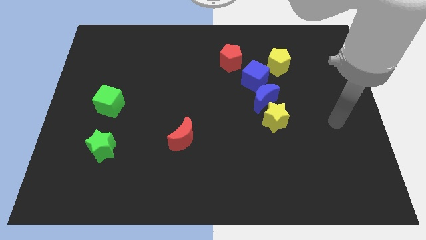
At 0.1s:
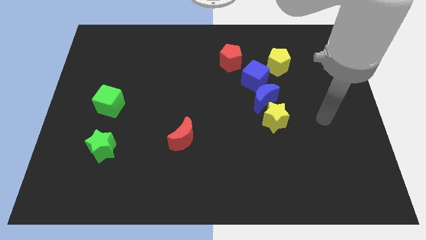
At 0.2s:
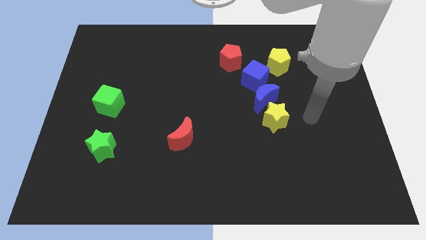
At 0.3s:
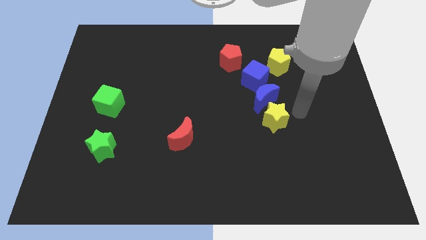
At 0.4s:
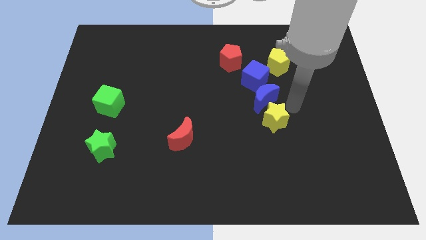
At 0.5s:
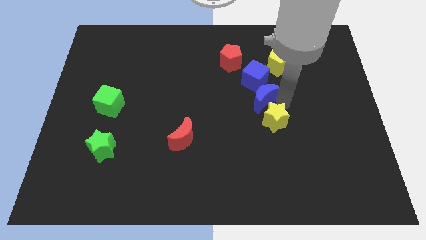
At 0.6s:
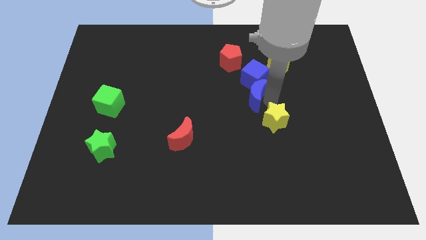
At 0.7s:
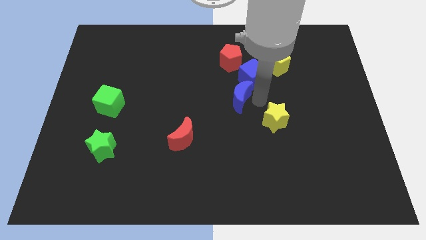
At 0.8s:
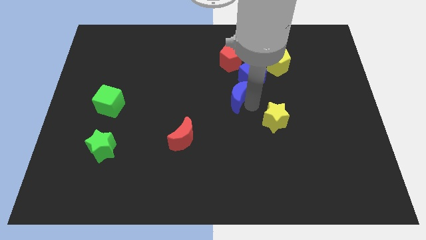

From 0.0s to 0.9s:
pull the yellow star apart from the blue moon

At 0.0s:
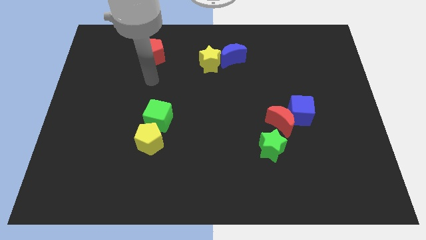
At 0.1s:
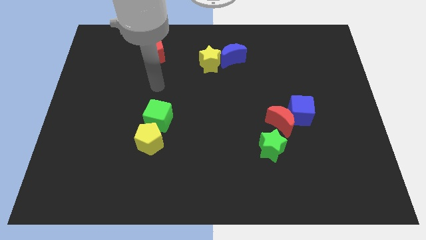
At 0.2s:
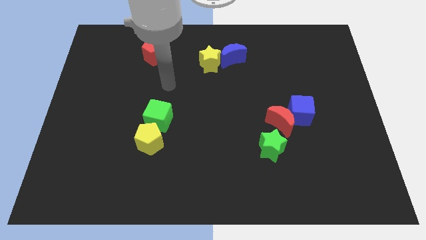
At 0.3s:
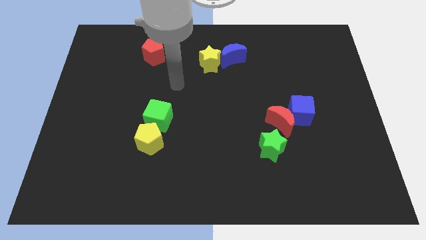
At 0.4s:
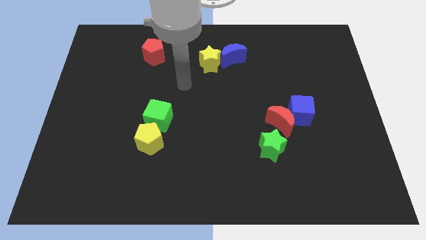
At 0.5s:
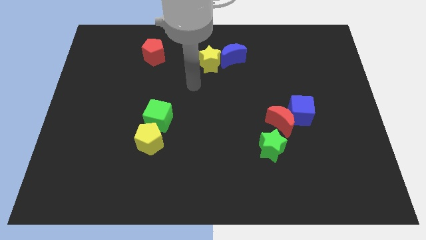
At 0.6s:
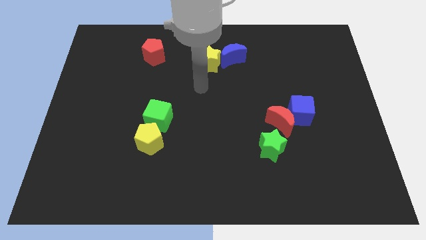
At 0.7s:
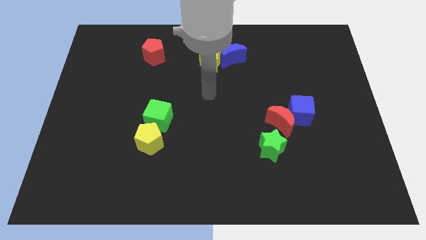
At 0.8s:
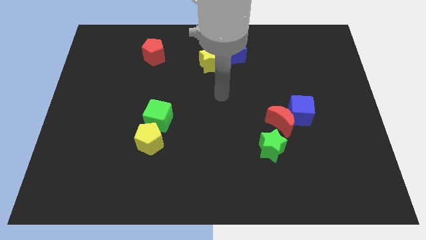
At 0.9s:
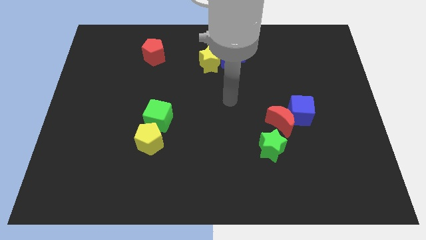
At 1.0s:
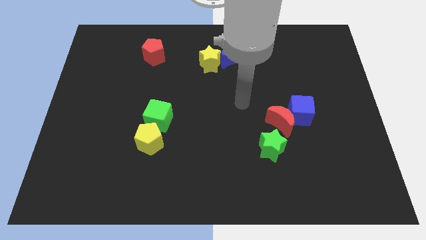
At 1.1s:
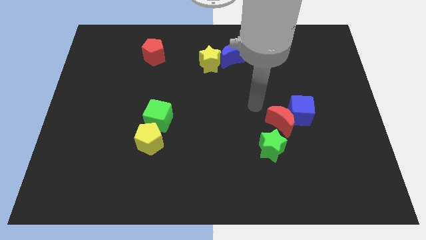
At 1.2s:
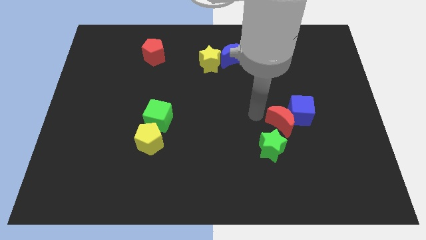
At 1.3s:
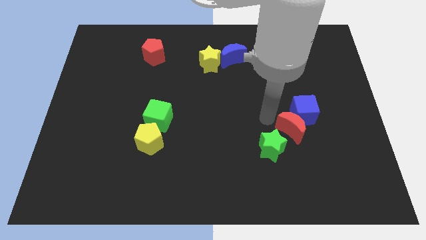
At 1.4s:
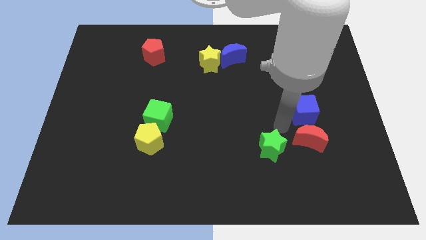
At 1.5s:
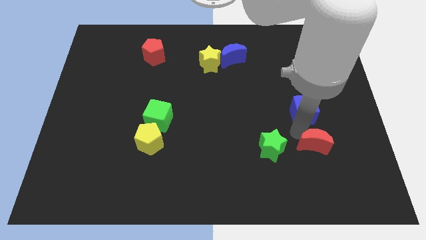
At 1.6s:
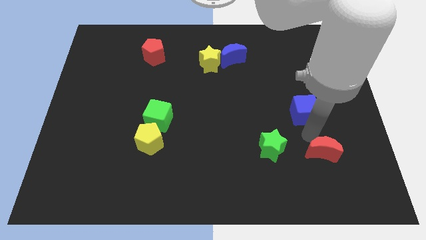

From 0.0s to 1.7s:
separate the blue cube from the red moon

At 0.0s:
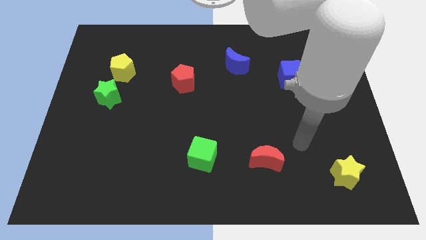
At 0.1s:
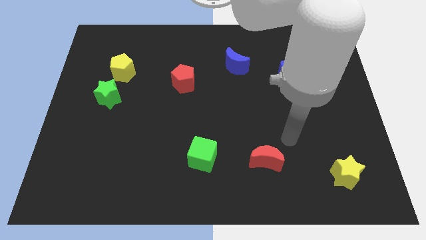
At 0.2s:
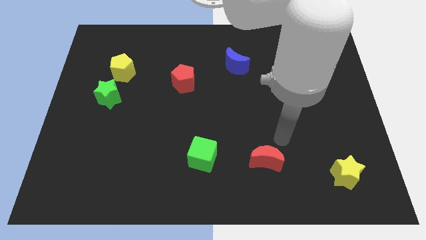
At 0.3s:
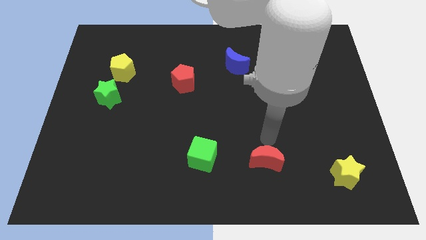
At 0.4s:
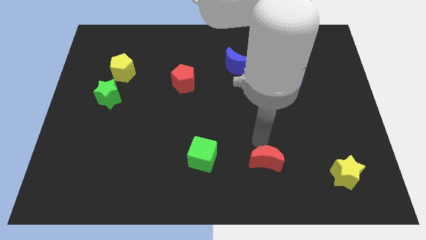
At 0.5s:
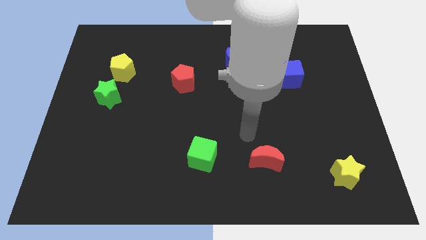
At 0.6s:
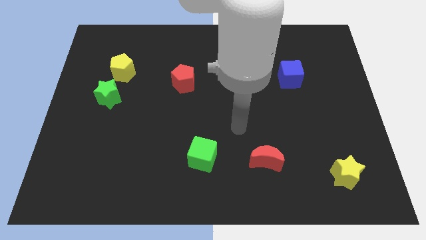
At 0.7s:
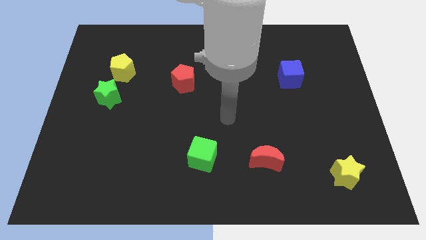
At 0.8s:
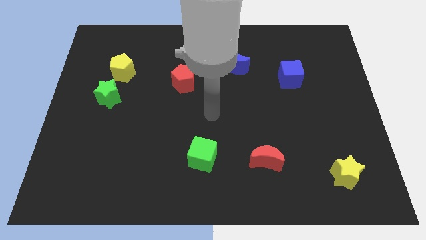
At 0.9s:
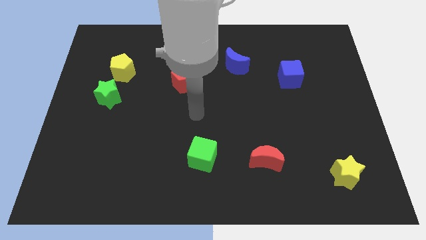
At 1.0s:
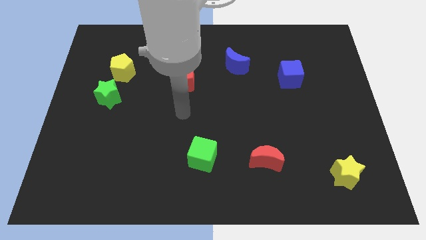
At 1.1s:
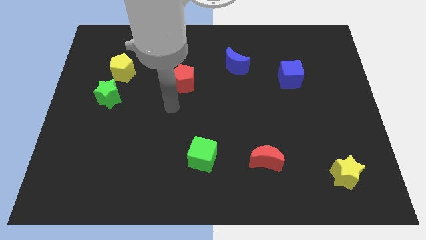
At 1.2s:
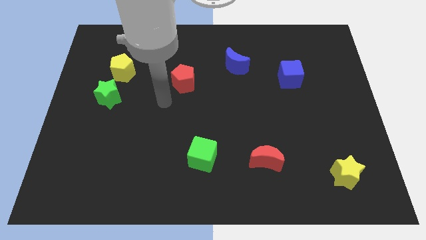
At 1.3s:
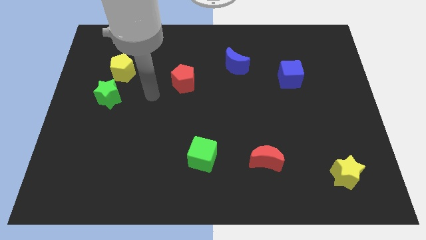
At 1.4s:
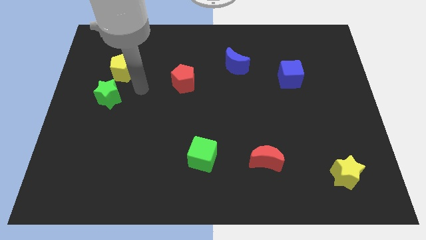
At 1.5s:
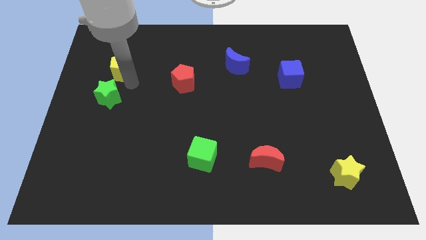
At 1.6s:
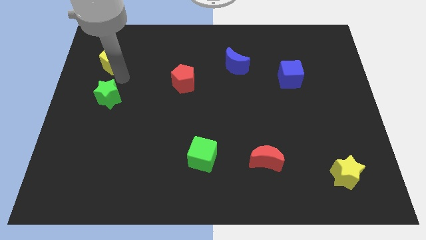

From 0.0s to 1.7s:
pull the green star apart from the yellow pentagon

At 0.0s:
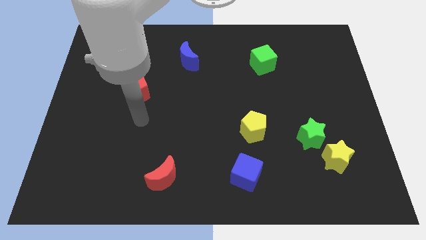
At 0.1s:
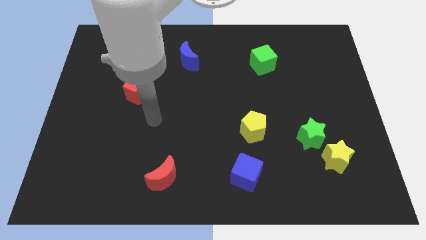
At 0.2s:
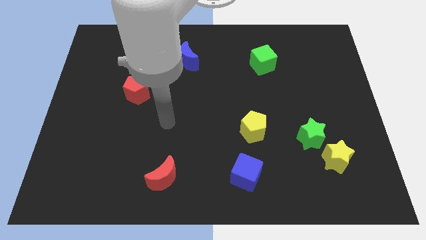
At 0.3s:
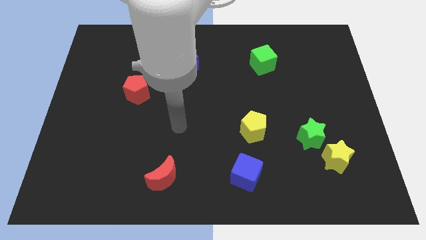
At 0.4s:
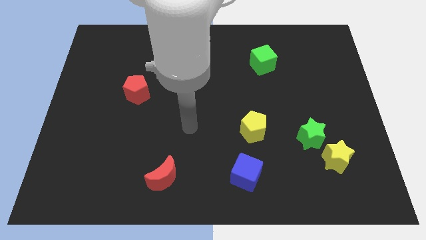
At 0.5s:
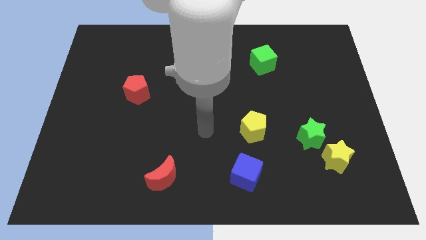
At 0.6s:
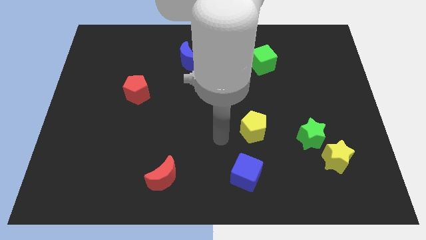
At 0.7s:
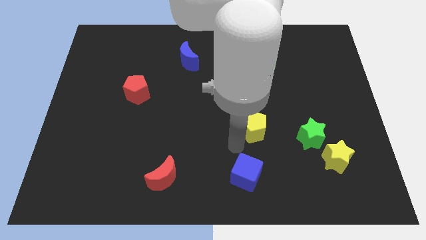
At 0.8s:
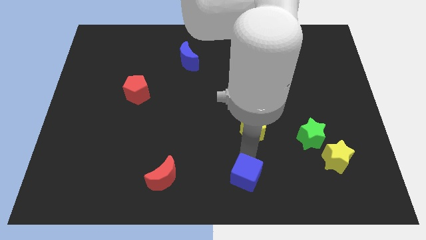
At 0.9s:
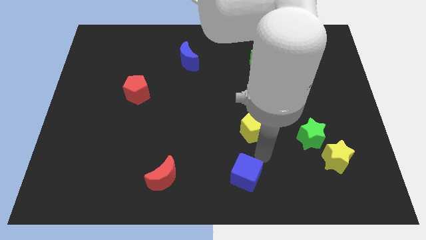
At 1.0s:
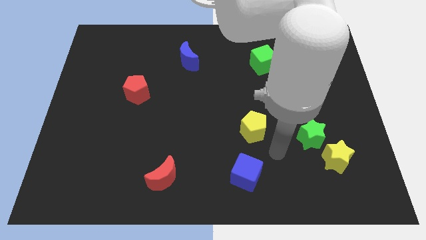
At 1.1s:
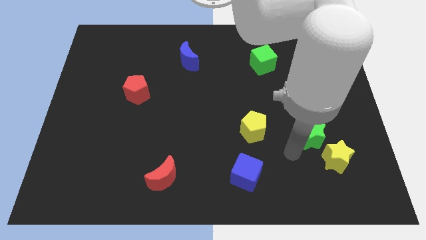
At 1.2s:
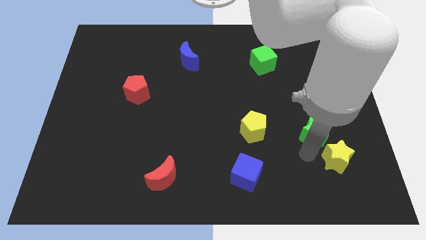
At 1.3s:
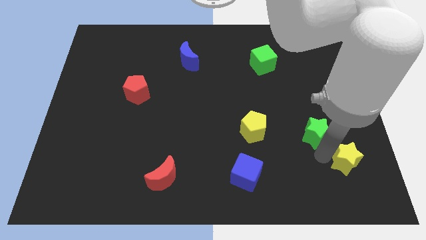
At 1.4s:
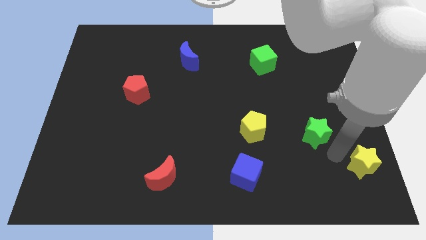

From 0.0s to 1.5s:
move the green star away from the yellow star

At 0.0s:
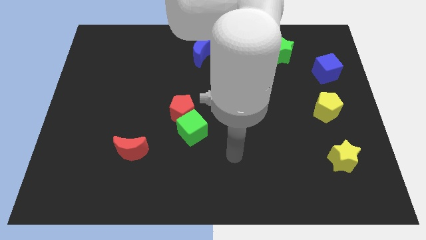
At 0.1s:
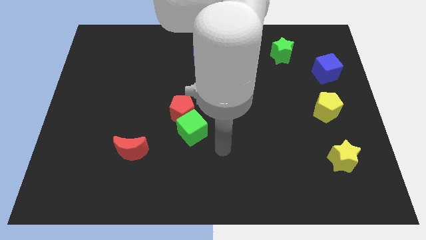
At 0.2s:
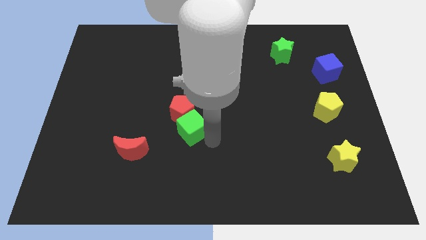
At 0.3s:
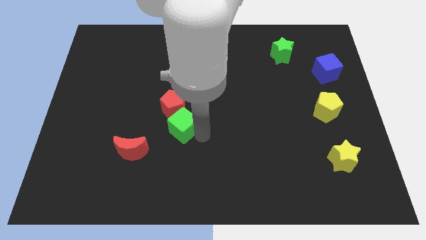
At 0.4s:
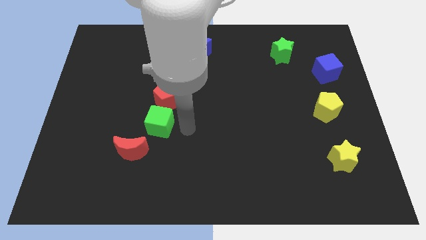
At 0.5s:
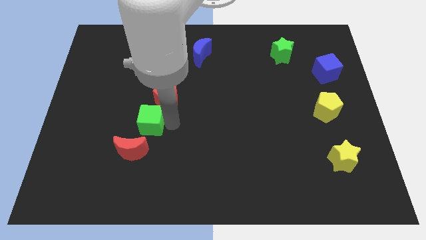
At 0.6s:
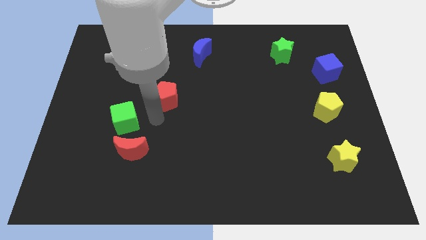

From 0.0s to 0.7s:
separate the red pentagon from the green cube

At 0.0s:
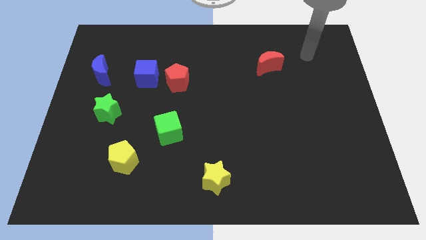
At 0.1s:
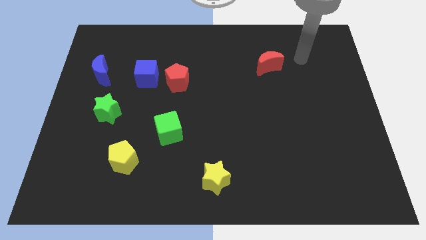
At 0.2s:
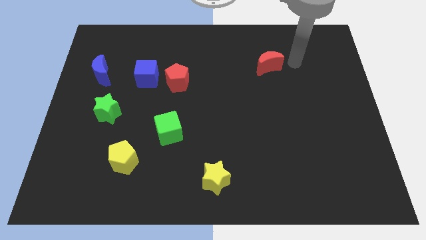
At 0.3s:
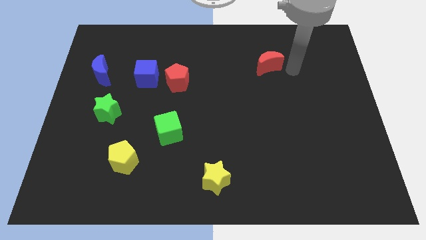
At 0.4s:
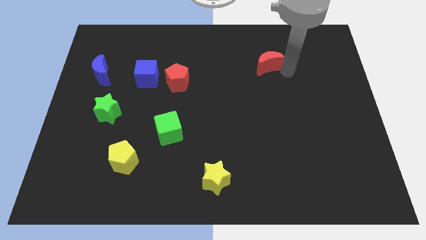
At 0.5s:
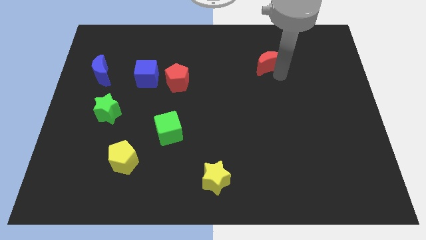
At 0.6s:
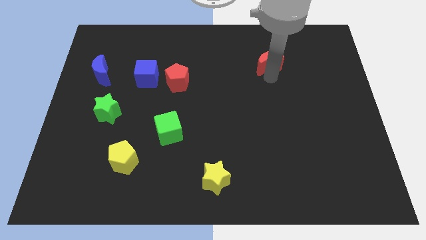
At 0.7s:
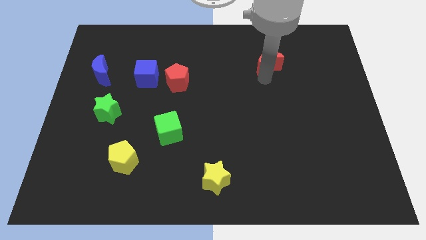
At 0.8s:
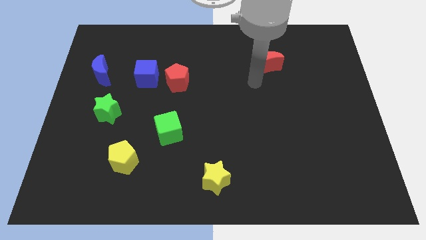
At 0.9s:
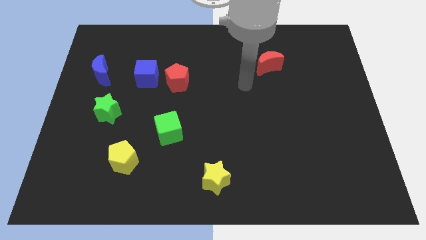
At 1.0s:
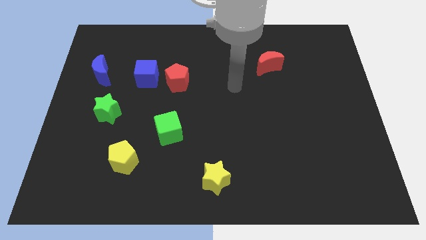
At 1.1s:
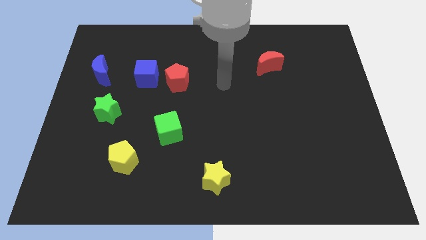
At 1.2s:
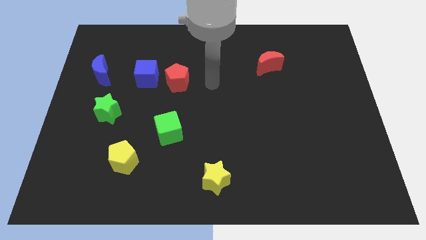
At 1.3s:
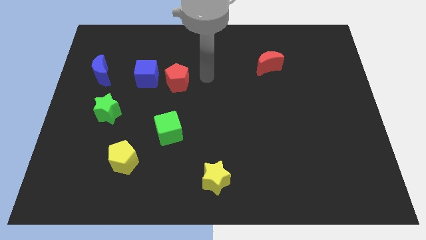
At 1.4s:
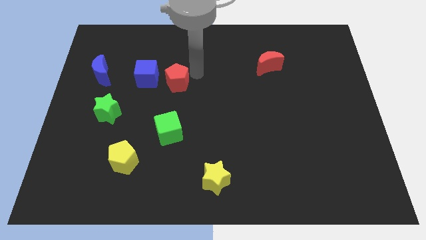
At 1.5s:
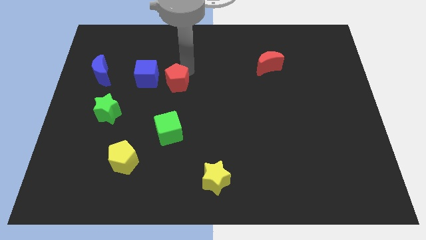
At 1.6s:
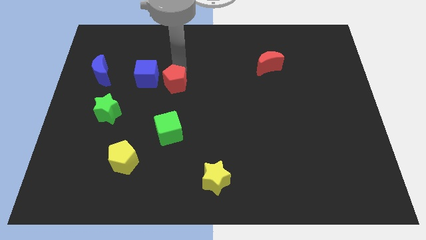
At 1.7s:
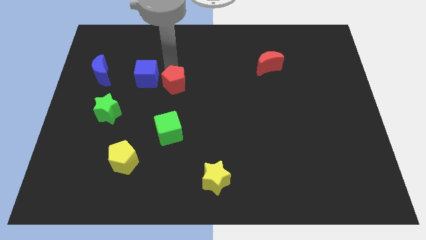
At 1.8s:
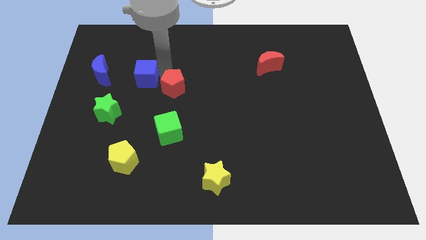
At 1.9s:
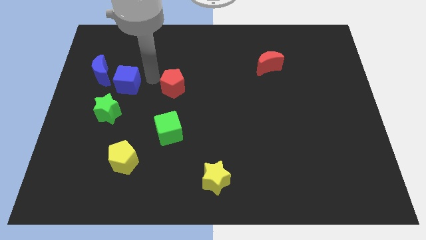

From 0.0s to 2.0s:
move the red pentagon away from the blue cube

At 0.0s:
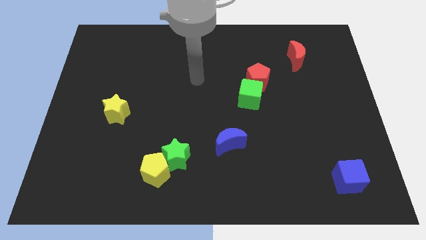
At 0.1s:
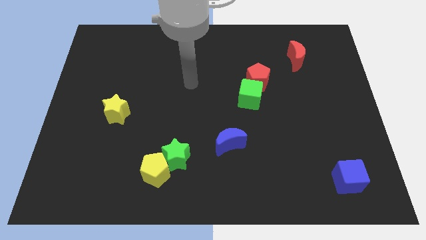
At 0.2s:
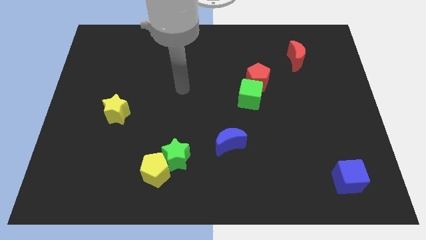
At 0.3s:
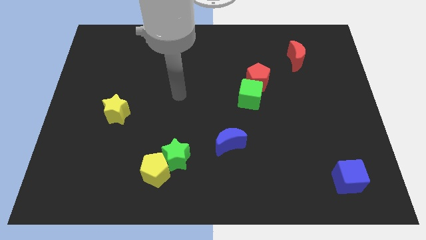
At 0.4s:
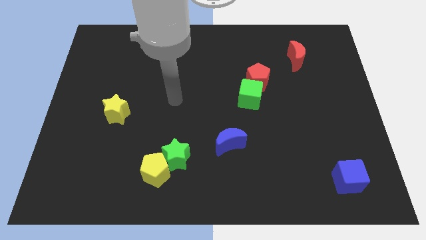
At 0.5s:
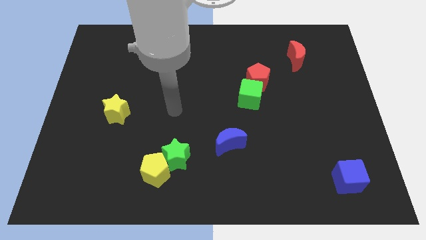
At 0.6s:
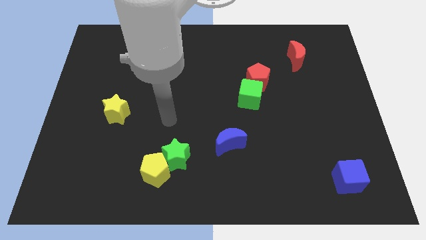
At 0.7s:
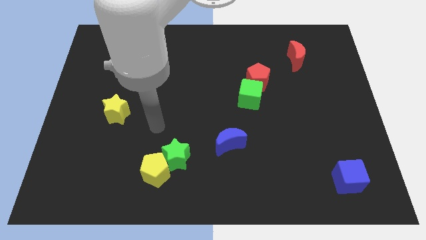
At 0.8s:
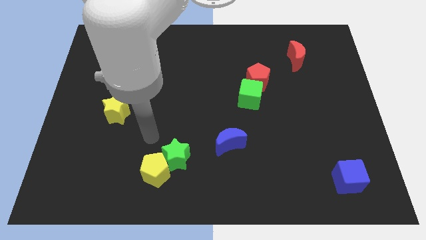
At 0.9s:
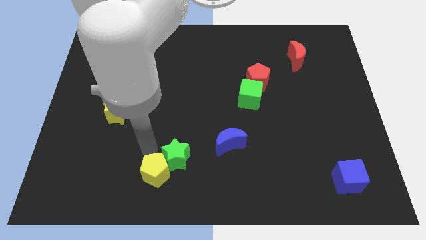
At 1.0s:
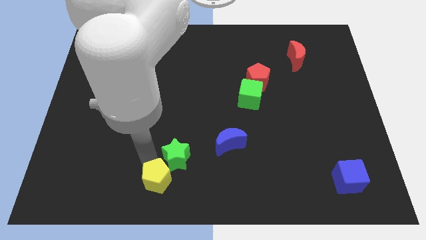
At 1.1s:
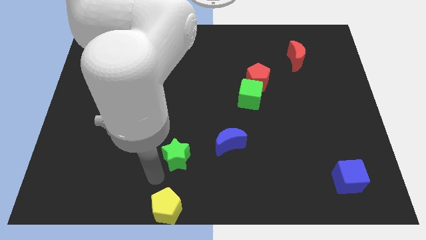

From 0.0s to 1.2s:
move the green star away from the yellow pentagon
